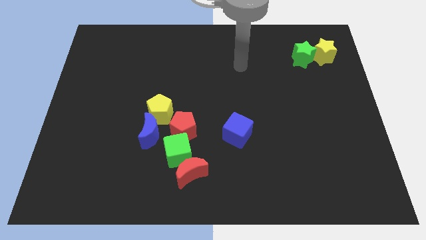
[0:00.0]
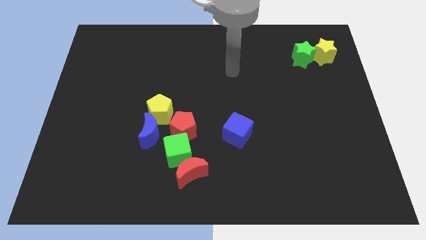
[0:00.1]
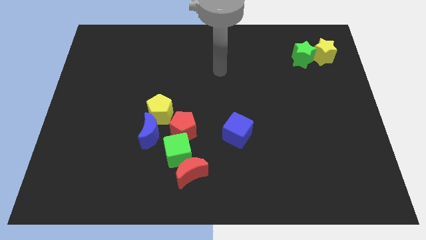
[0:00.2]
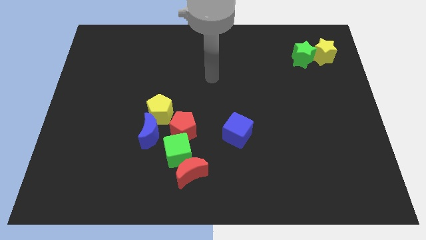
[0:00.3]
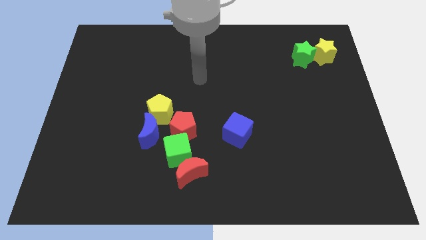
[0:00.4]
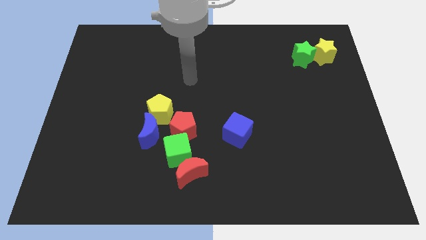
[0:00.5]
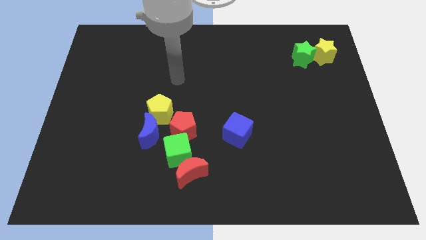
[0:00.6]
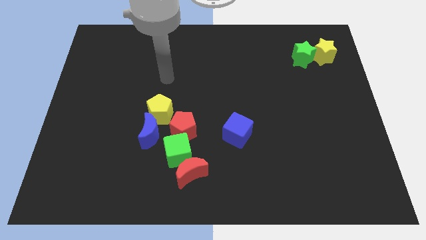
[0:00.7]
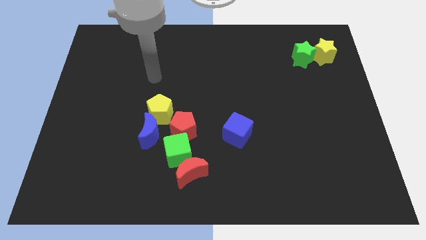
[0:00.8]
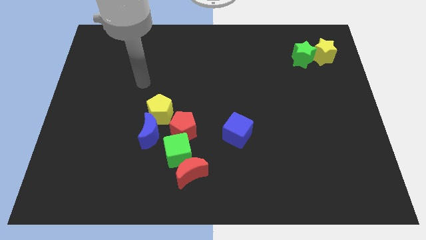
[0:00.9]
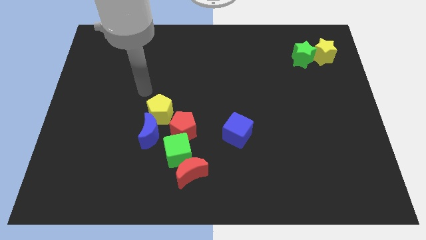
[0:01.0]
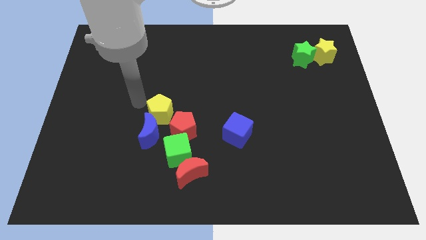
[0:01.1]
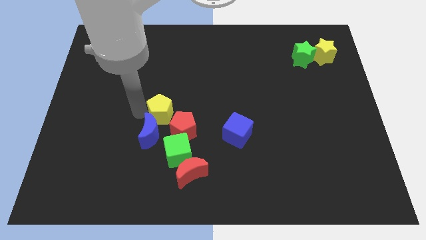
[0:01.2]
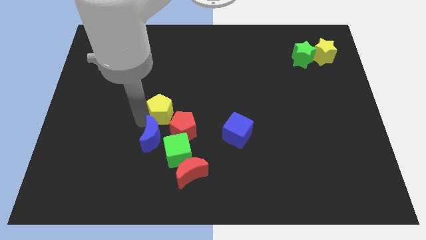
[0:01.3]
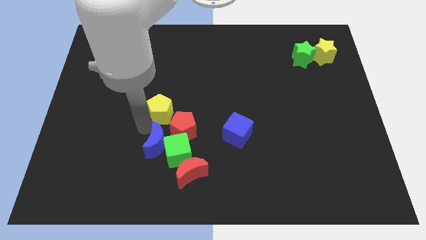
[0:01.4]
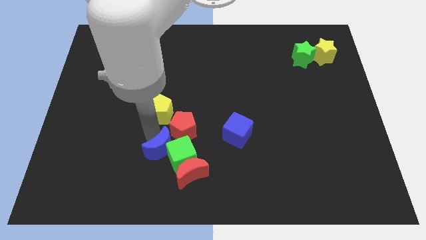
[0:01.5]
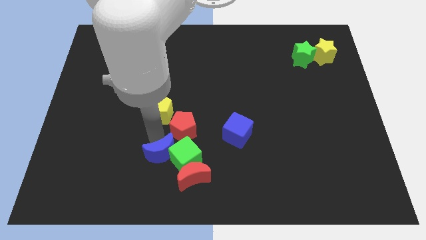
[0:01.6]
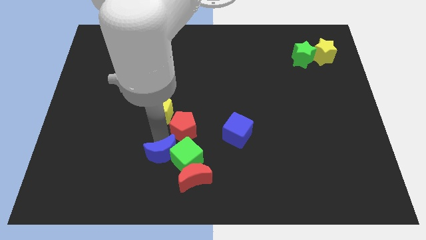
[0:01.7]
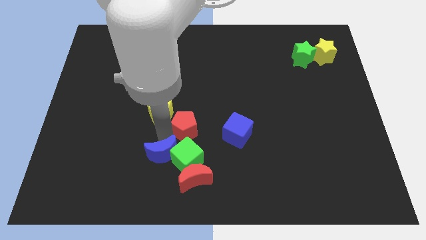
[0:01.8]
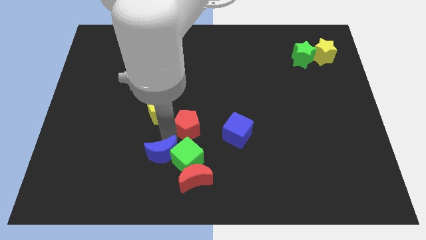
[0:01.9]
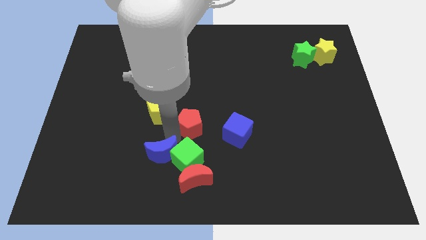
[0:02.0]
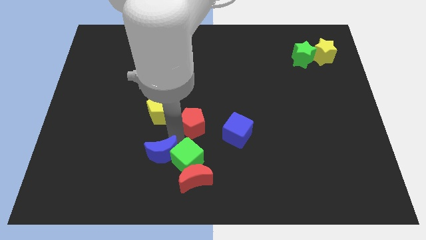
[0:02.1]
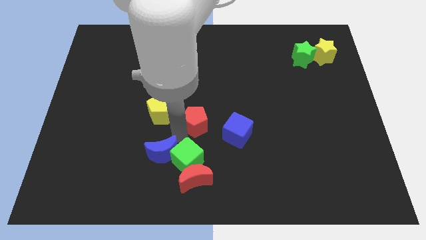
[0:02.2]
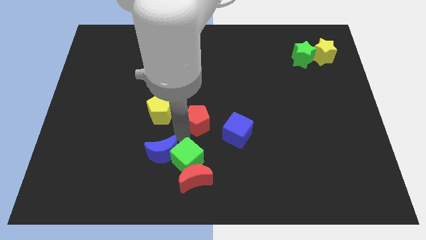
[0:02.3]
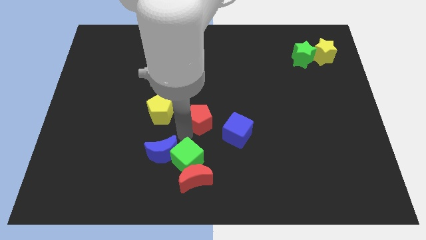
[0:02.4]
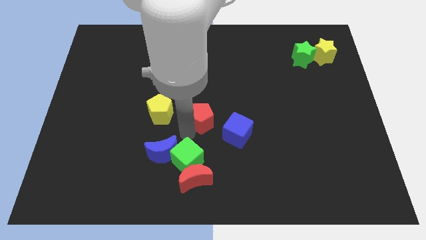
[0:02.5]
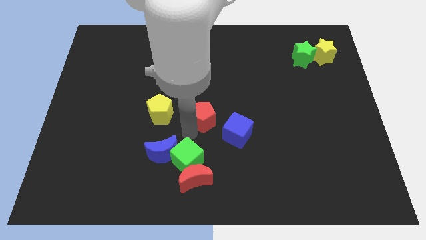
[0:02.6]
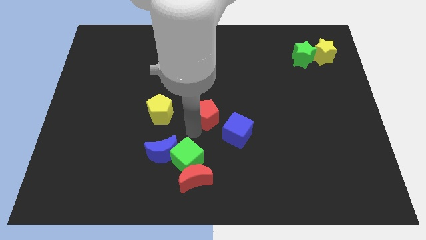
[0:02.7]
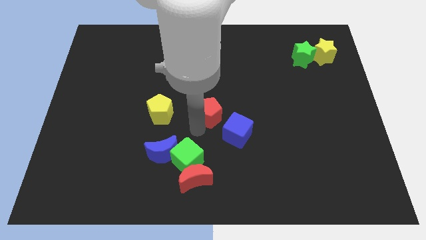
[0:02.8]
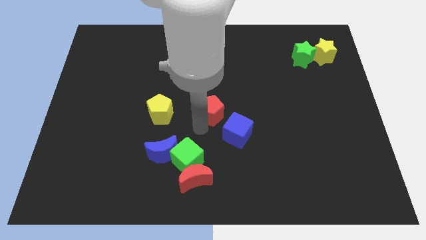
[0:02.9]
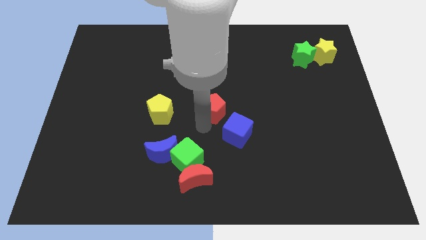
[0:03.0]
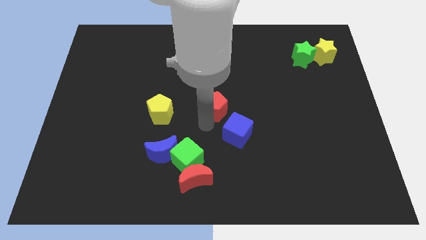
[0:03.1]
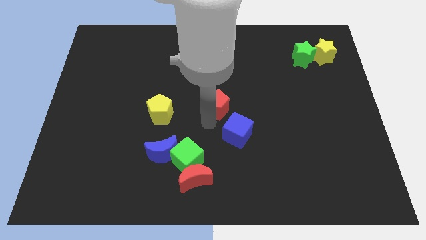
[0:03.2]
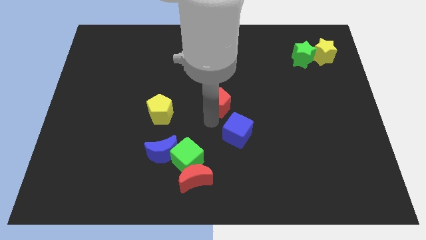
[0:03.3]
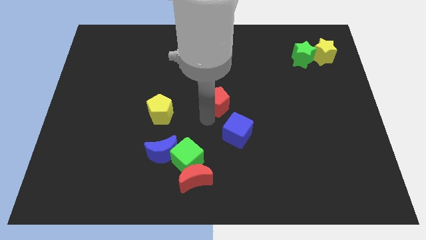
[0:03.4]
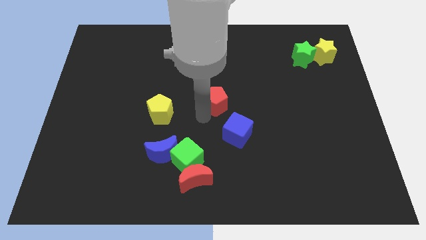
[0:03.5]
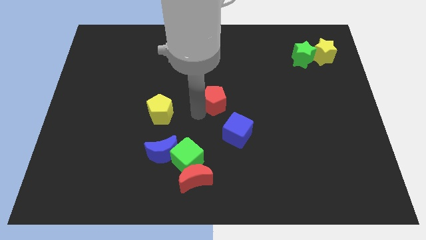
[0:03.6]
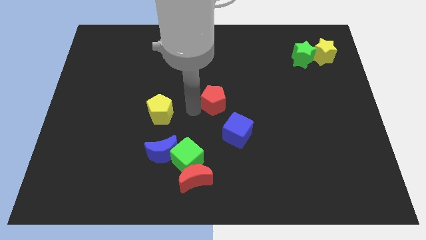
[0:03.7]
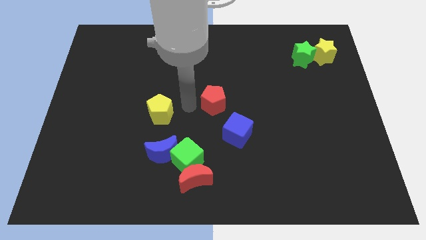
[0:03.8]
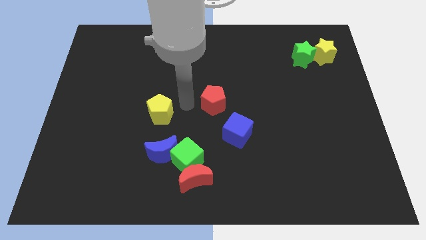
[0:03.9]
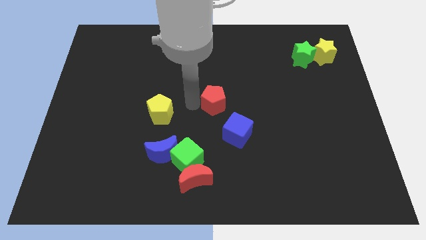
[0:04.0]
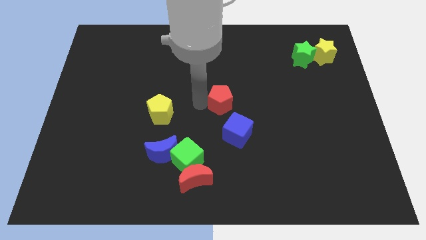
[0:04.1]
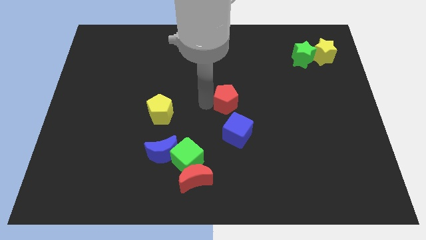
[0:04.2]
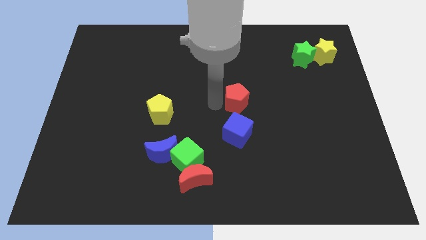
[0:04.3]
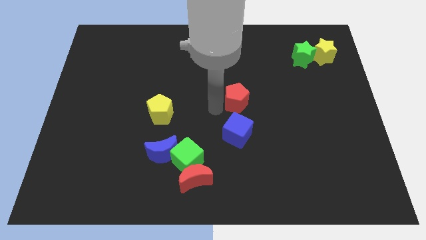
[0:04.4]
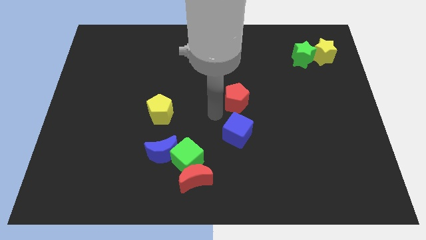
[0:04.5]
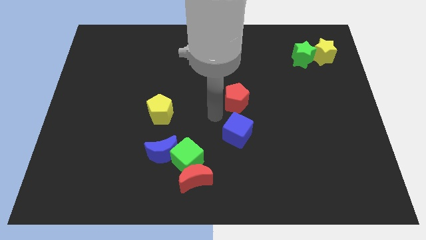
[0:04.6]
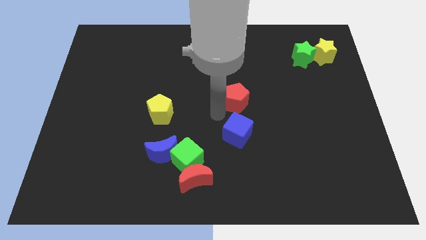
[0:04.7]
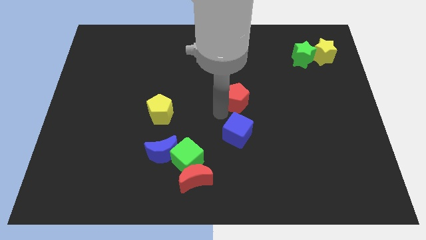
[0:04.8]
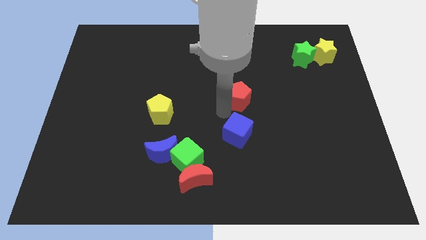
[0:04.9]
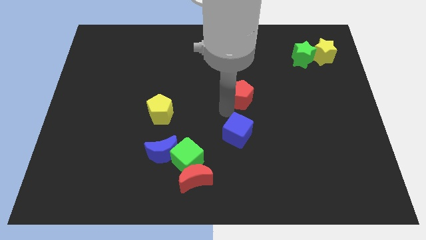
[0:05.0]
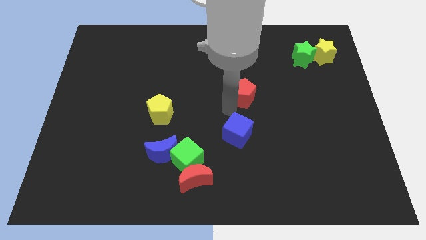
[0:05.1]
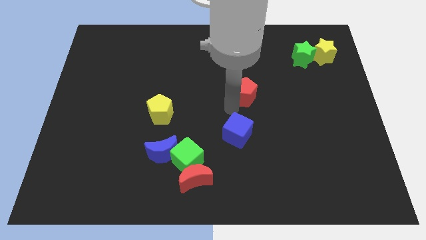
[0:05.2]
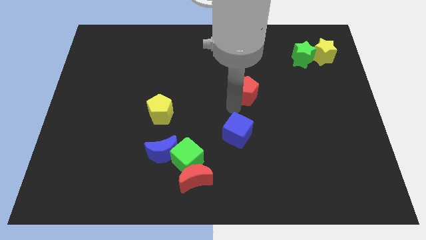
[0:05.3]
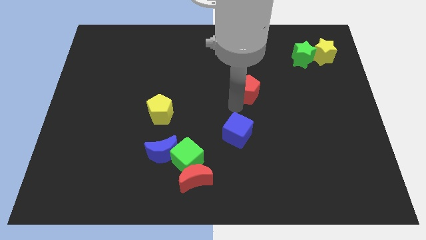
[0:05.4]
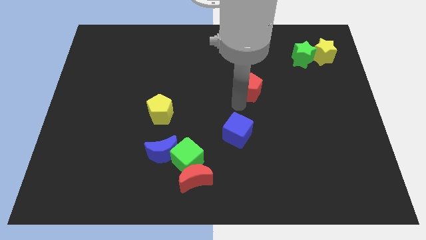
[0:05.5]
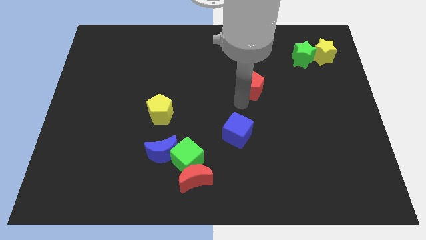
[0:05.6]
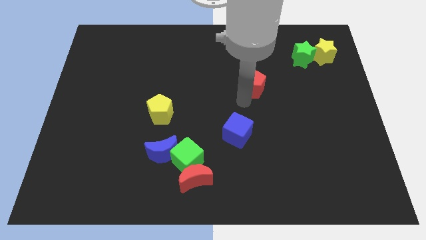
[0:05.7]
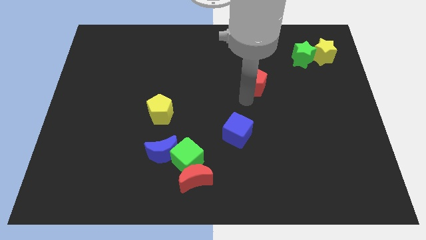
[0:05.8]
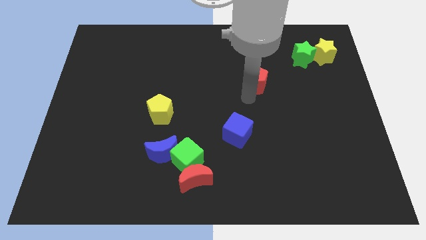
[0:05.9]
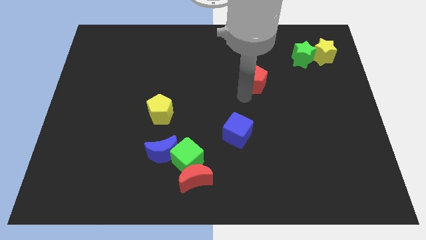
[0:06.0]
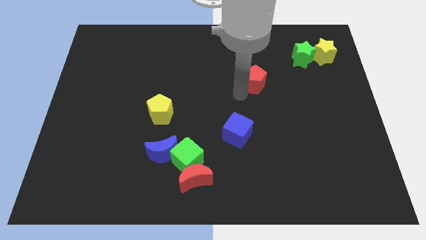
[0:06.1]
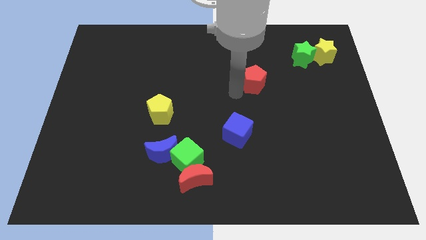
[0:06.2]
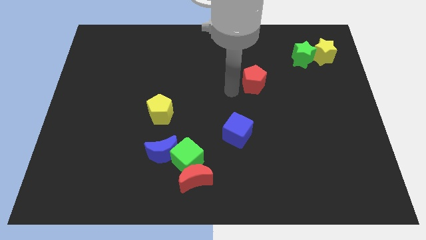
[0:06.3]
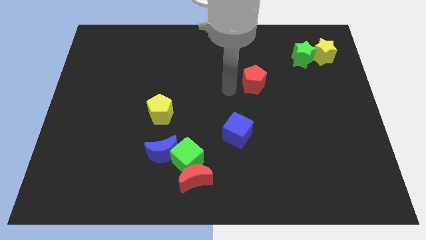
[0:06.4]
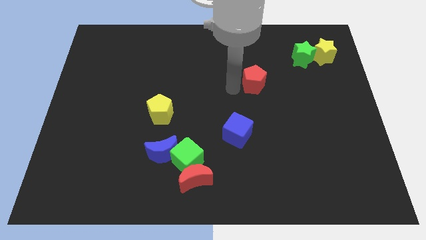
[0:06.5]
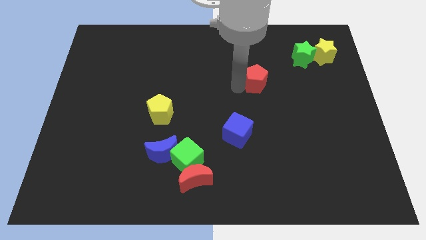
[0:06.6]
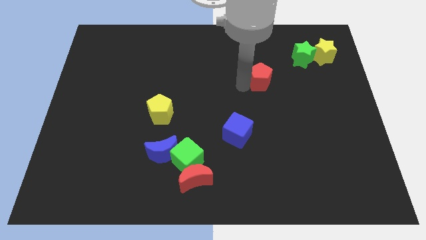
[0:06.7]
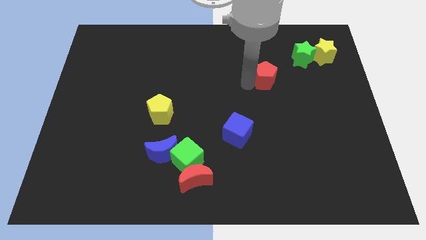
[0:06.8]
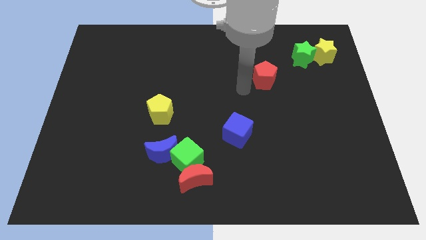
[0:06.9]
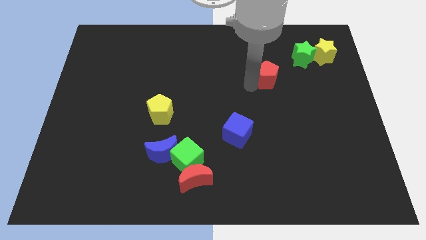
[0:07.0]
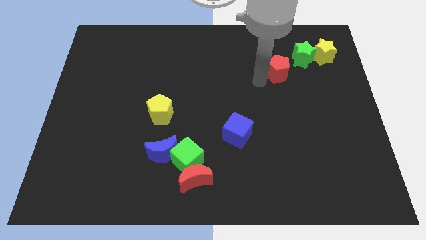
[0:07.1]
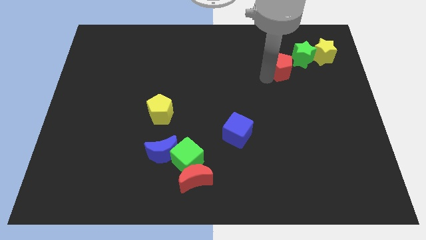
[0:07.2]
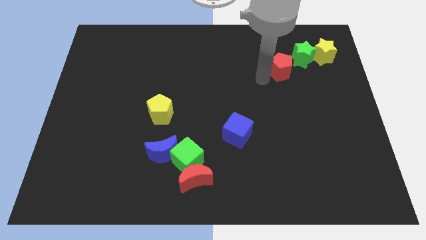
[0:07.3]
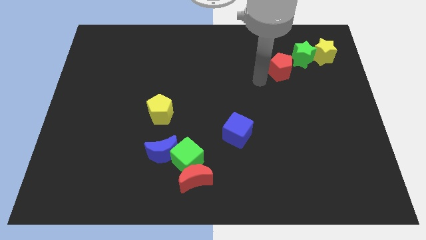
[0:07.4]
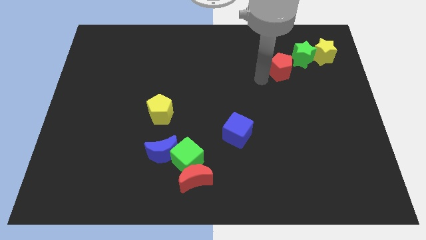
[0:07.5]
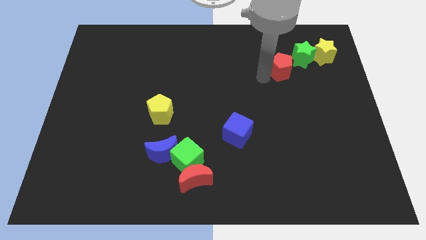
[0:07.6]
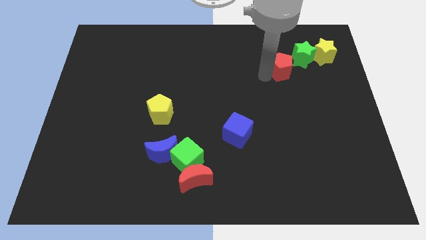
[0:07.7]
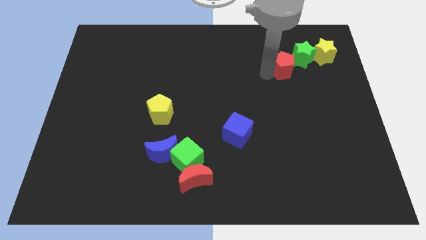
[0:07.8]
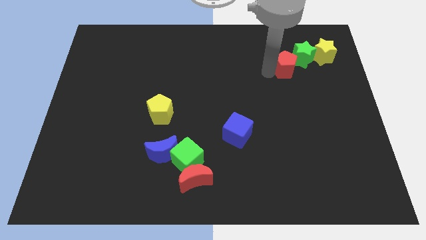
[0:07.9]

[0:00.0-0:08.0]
slide the red pentagon next to the green star
